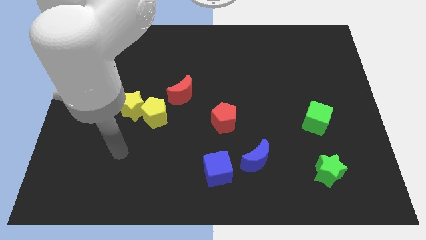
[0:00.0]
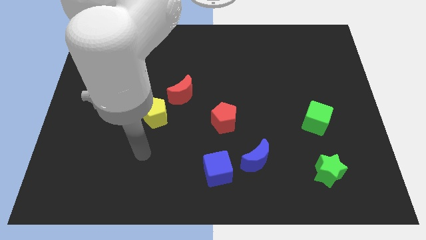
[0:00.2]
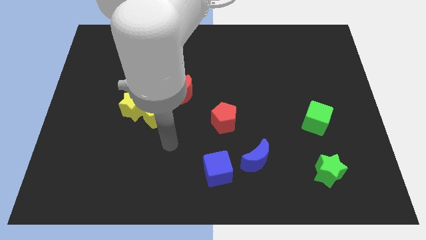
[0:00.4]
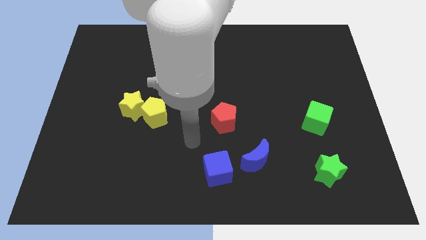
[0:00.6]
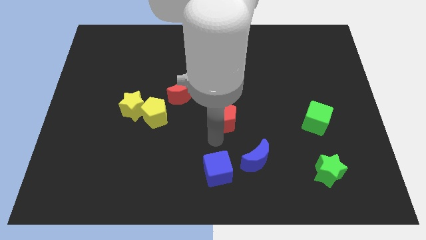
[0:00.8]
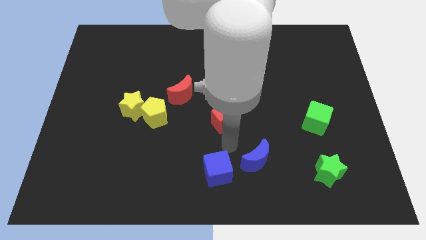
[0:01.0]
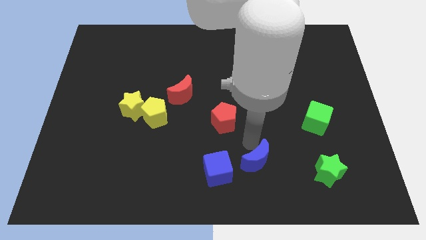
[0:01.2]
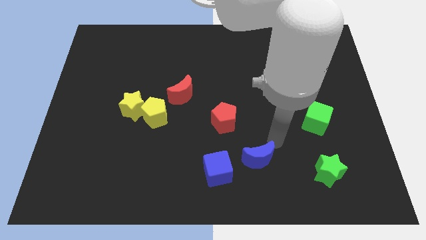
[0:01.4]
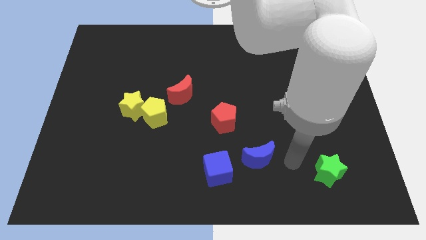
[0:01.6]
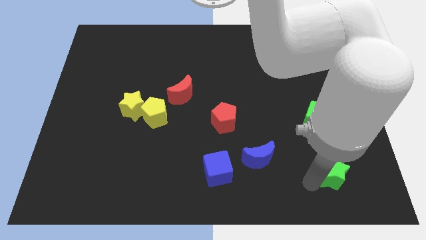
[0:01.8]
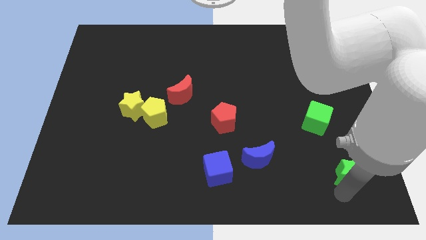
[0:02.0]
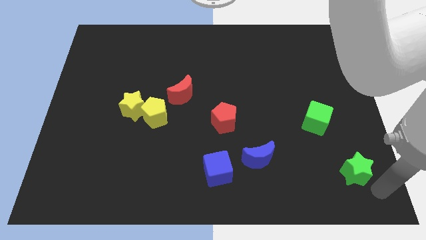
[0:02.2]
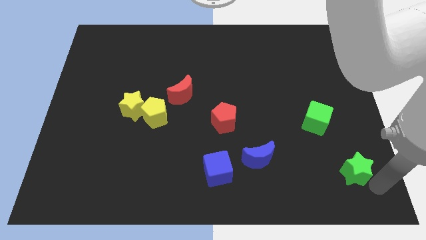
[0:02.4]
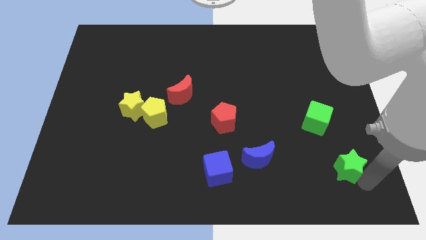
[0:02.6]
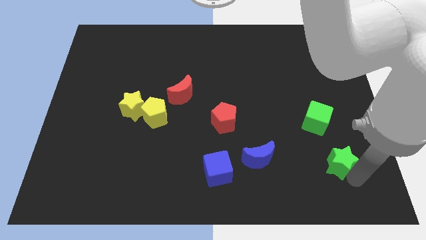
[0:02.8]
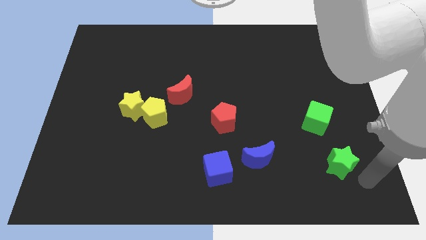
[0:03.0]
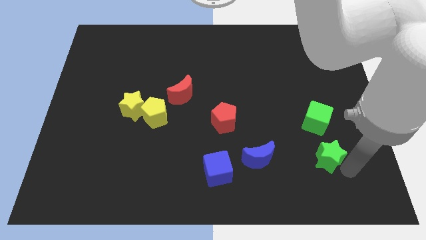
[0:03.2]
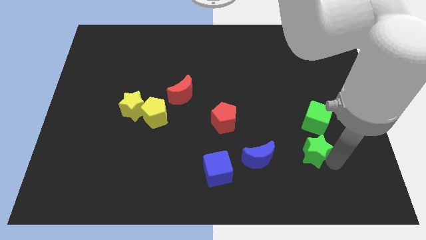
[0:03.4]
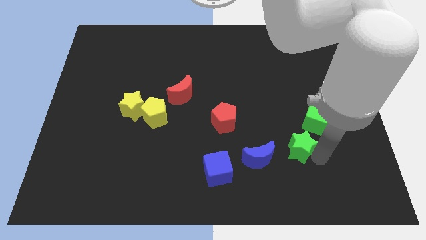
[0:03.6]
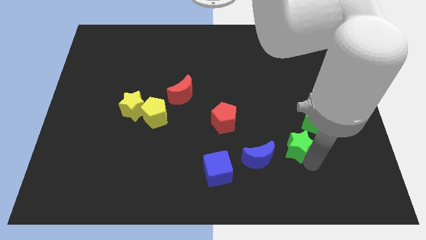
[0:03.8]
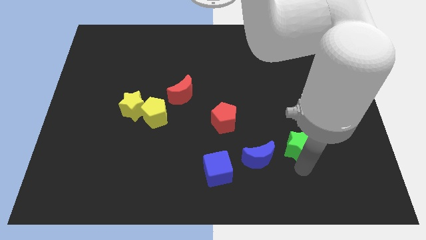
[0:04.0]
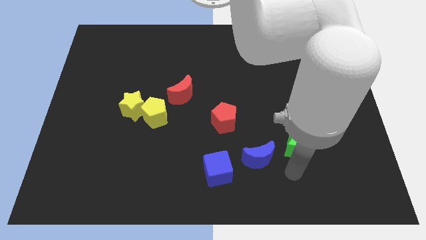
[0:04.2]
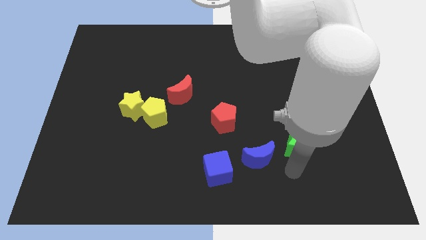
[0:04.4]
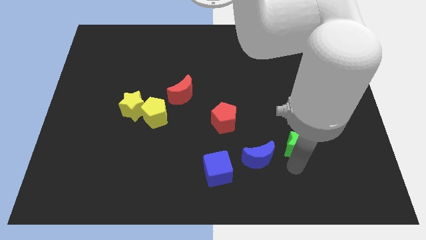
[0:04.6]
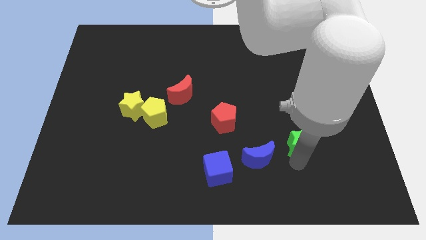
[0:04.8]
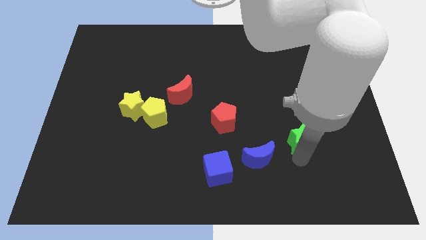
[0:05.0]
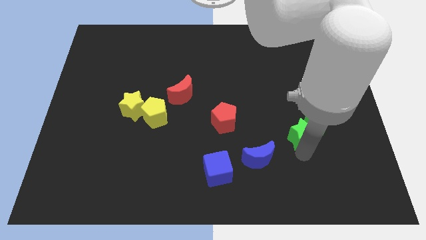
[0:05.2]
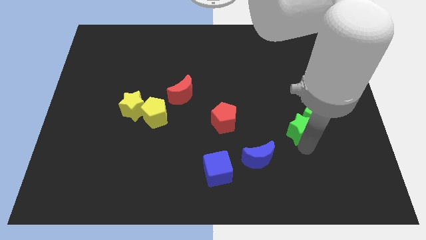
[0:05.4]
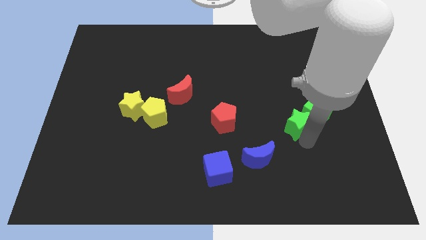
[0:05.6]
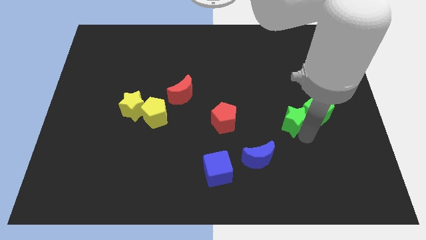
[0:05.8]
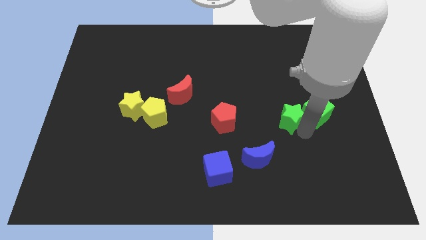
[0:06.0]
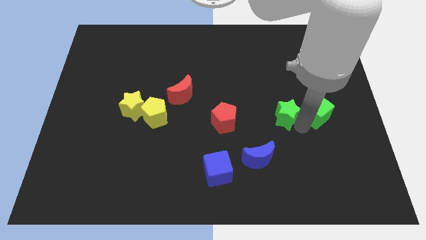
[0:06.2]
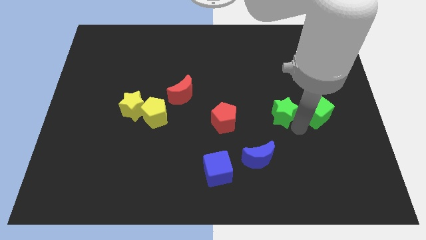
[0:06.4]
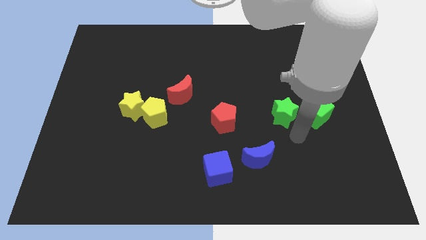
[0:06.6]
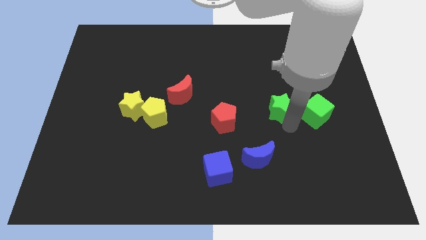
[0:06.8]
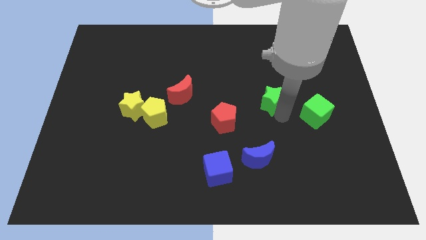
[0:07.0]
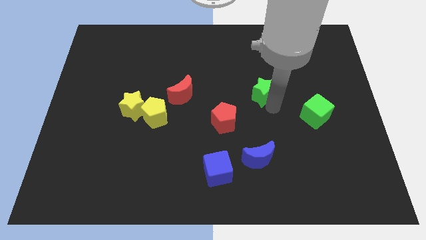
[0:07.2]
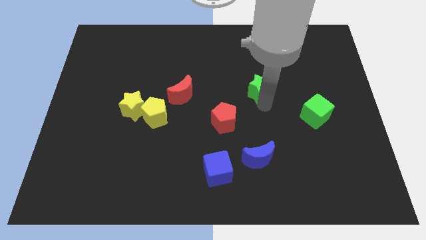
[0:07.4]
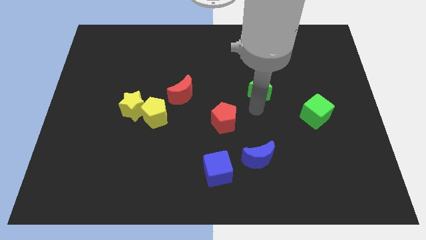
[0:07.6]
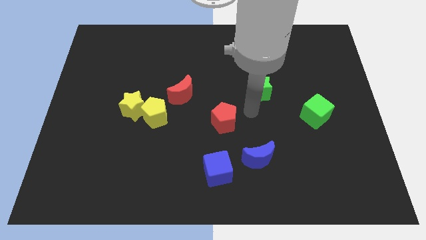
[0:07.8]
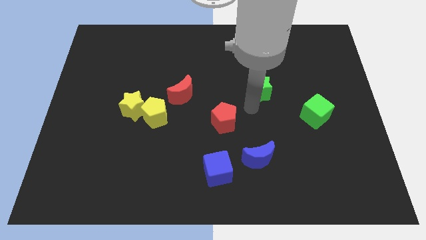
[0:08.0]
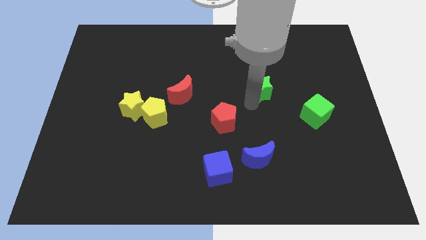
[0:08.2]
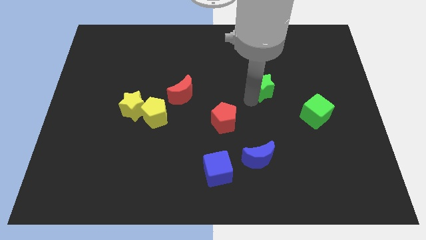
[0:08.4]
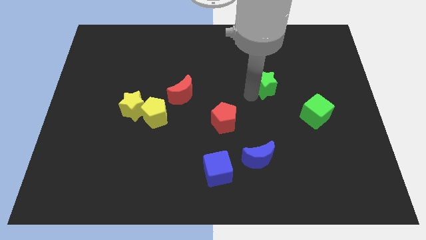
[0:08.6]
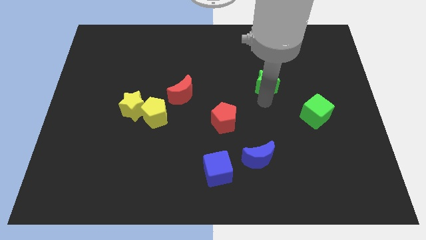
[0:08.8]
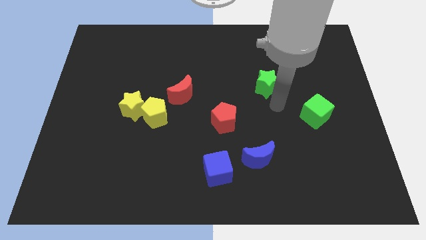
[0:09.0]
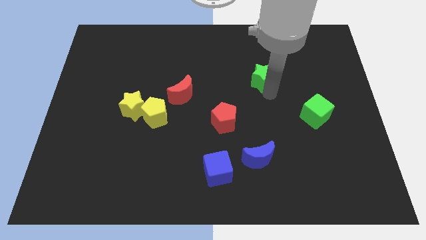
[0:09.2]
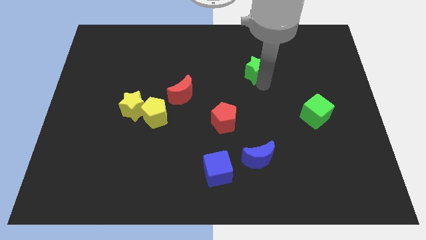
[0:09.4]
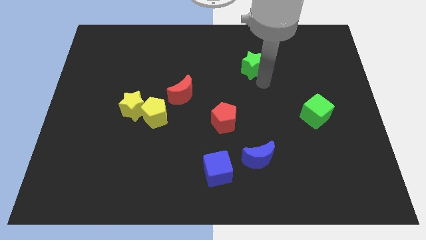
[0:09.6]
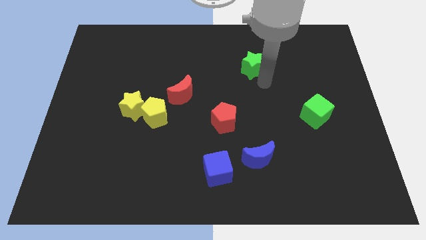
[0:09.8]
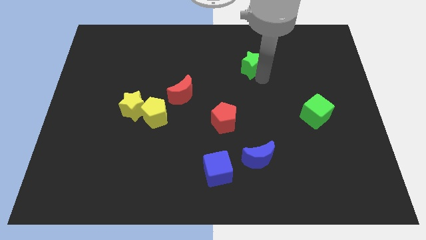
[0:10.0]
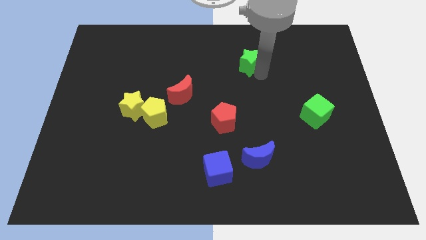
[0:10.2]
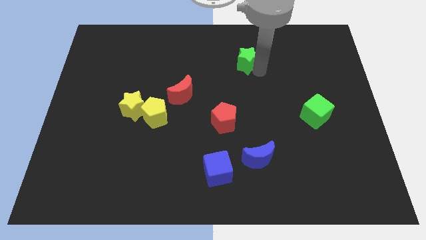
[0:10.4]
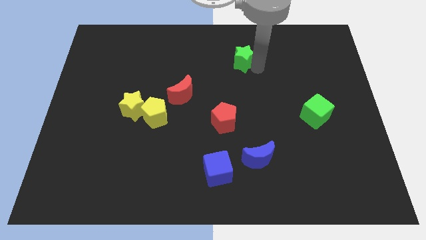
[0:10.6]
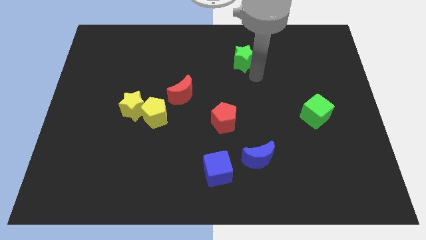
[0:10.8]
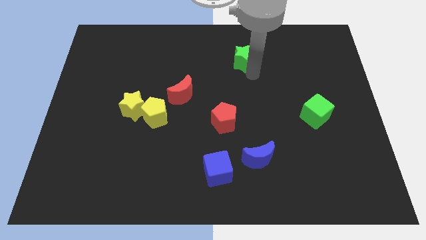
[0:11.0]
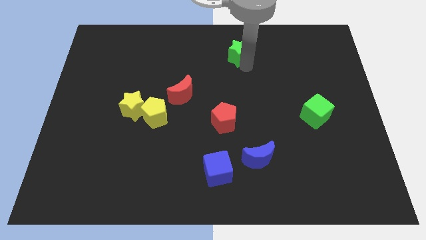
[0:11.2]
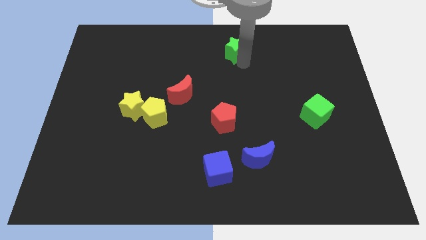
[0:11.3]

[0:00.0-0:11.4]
move the green star to the top side

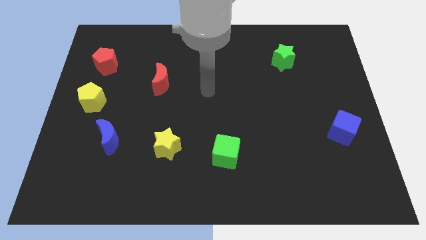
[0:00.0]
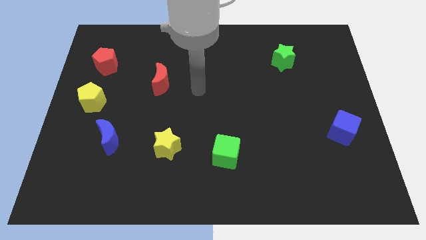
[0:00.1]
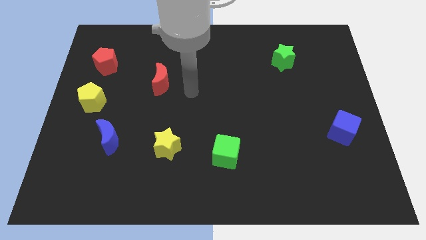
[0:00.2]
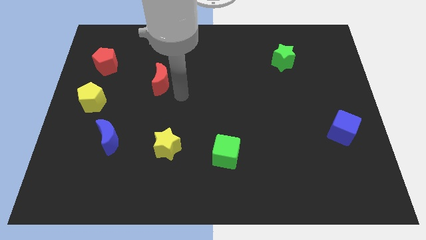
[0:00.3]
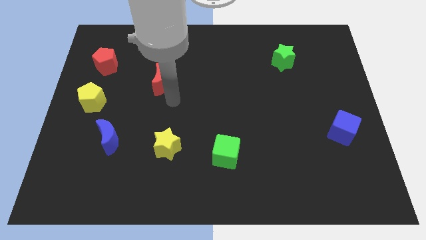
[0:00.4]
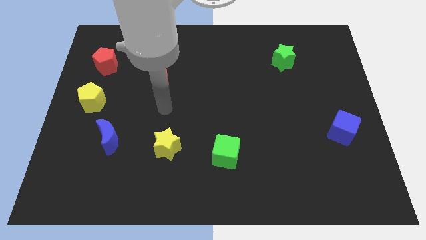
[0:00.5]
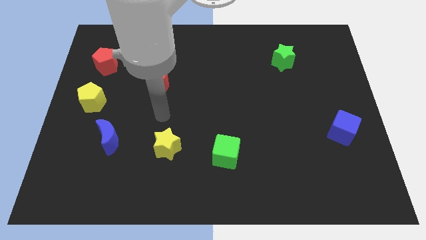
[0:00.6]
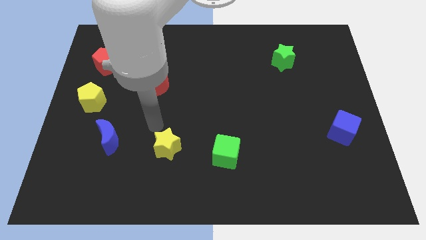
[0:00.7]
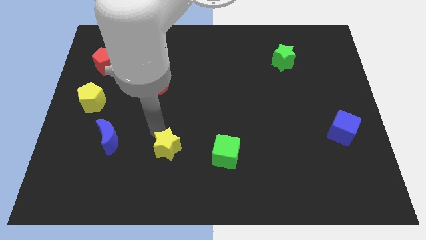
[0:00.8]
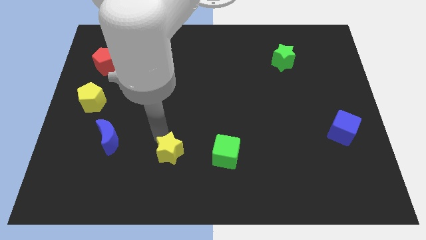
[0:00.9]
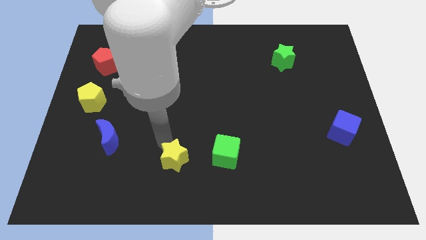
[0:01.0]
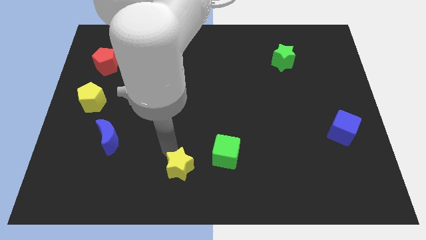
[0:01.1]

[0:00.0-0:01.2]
put the yellow star to the bottom
